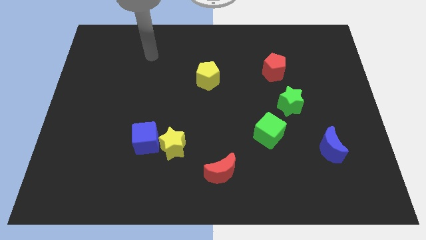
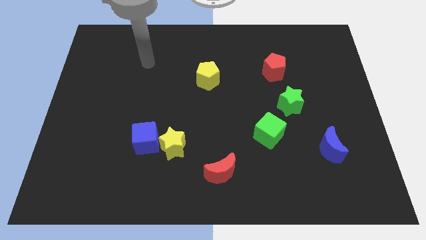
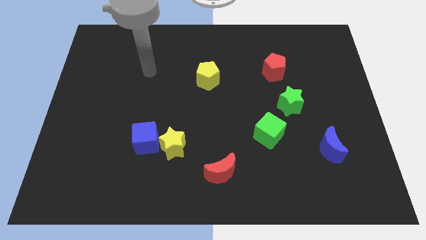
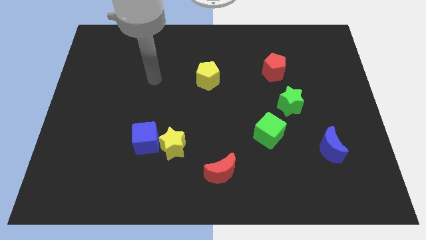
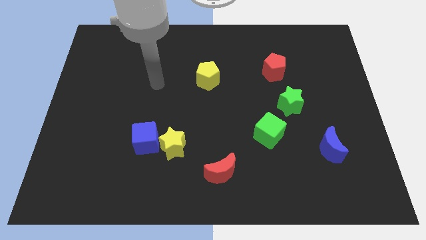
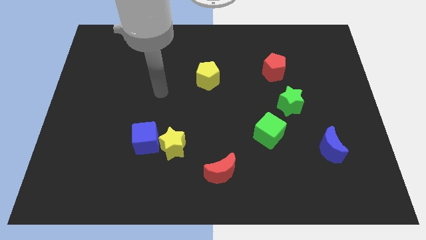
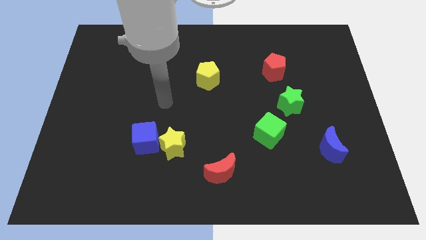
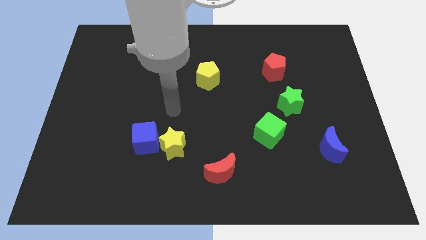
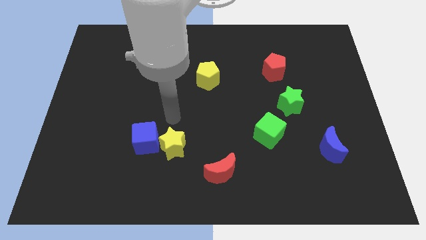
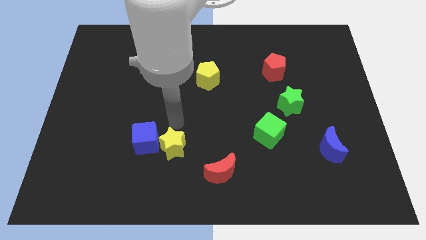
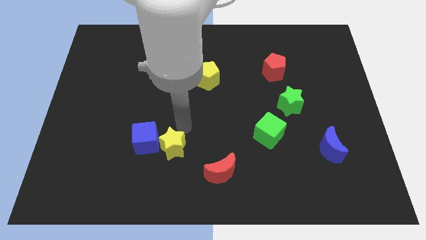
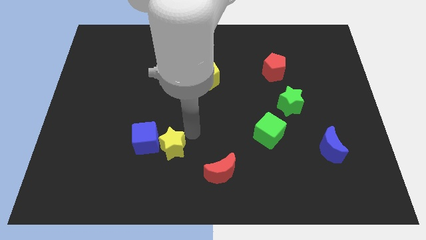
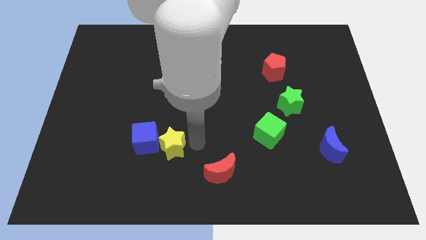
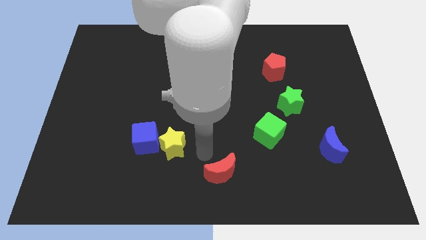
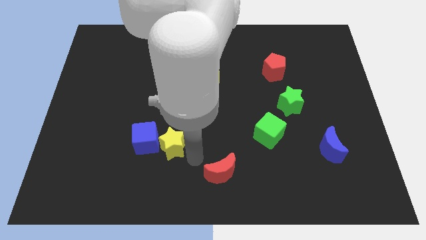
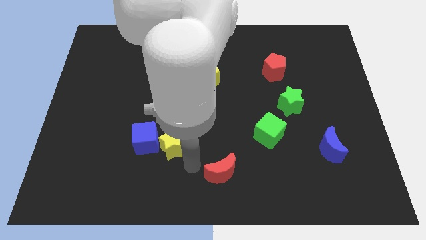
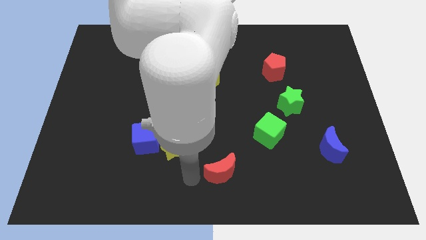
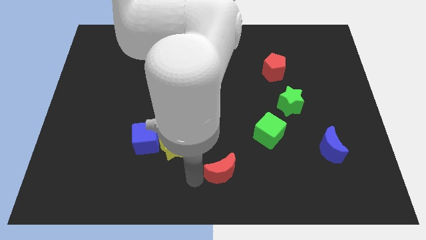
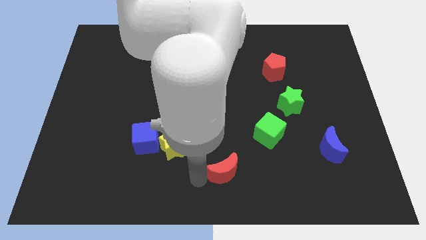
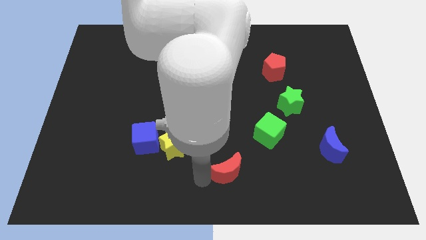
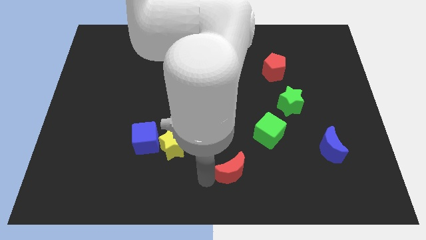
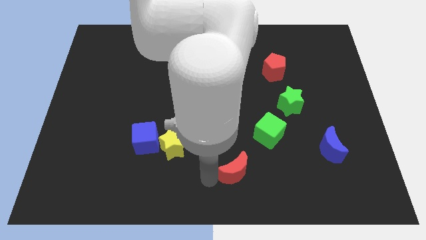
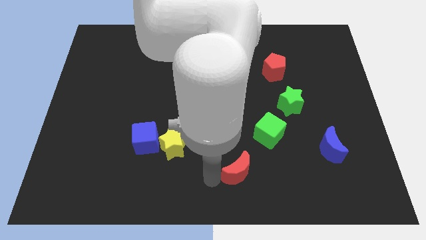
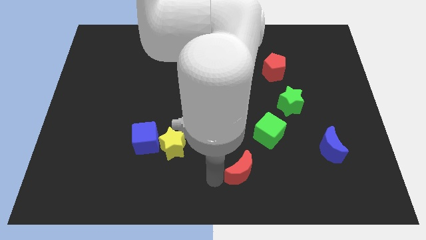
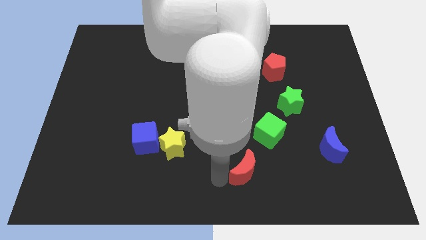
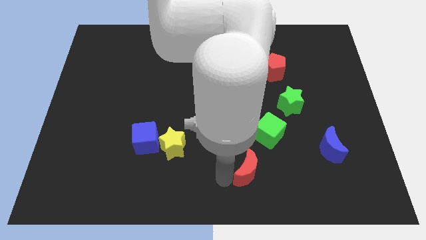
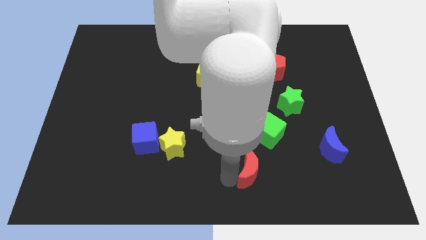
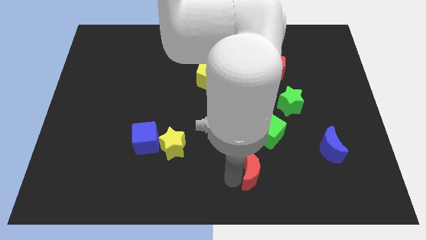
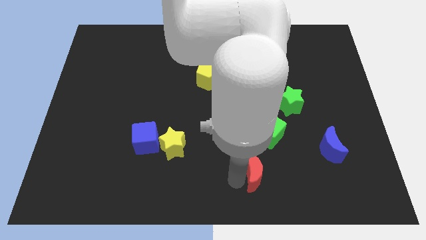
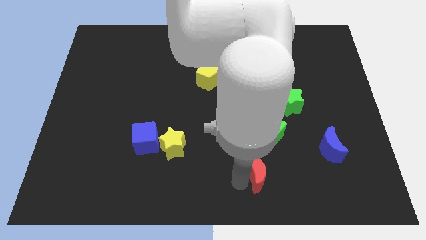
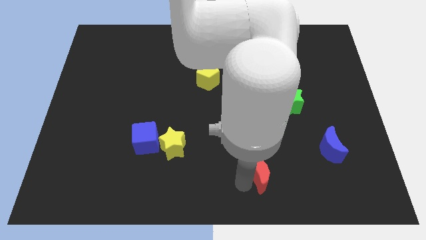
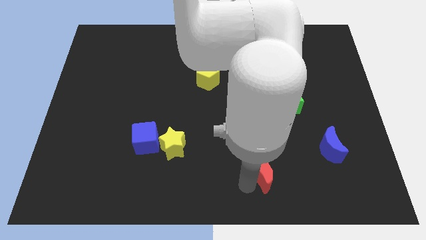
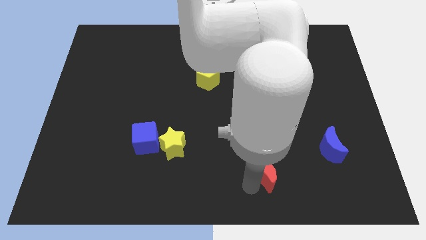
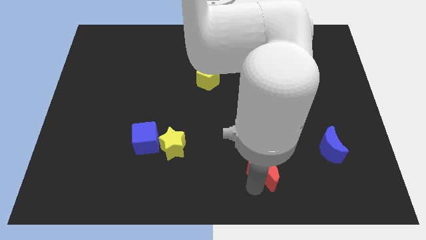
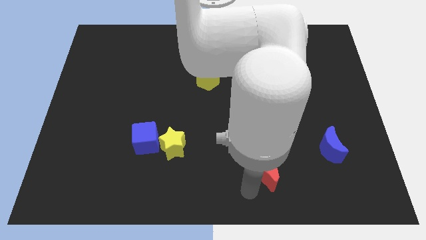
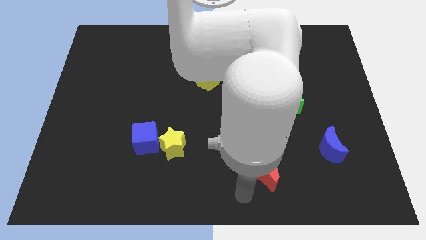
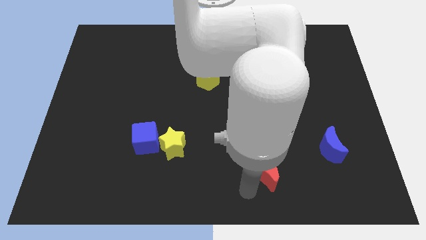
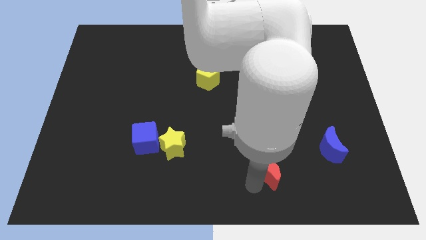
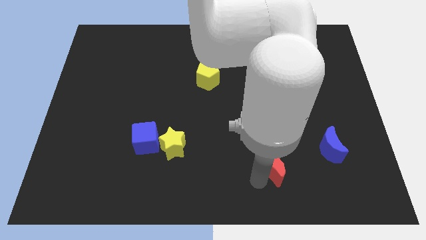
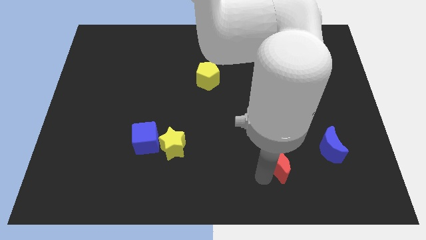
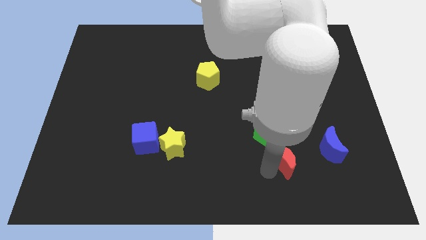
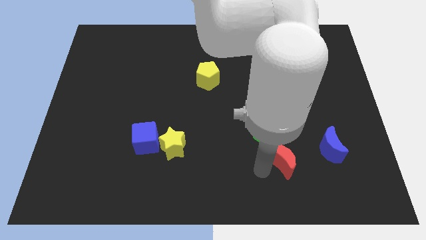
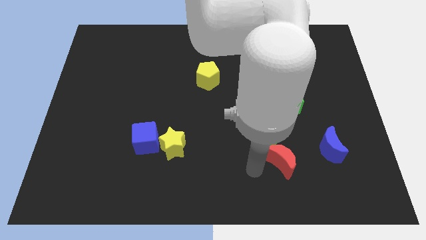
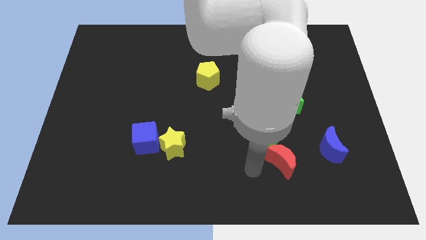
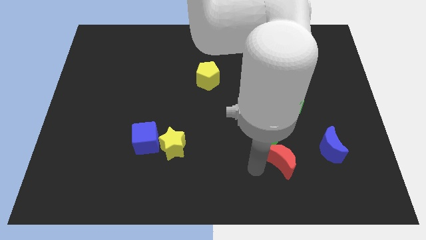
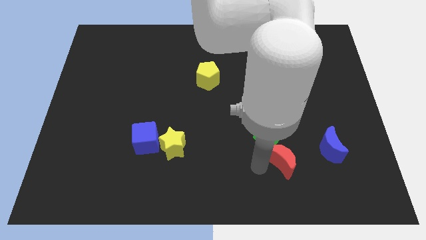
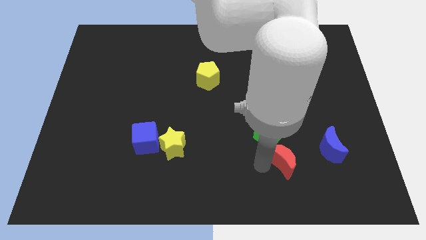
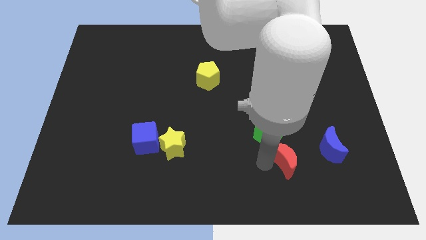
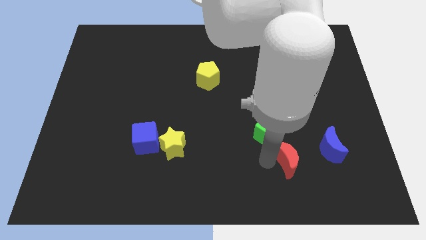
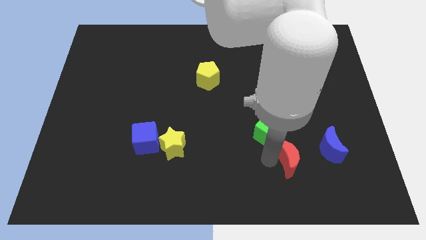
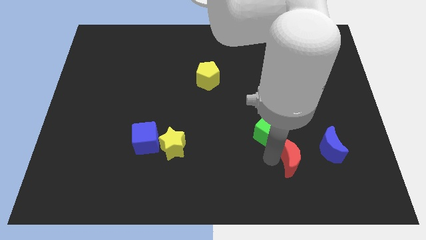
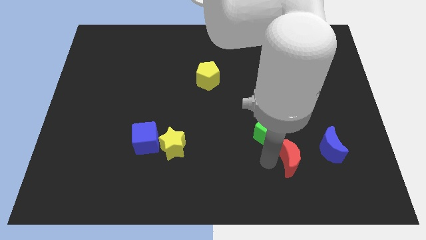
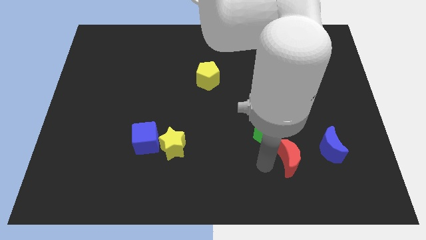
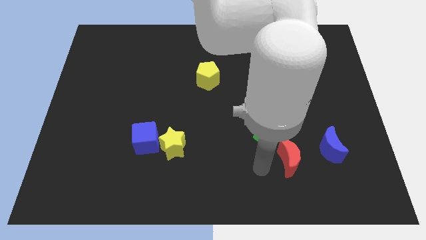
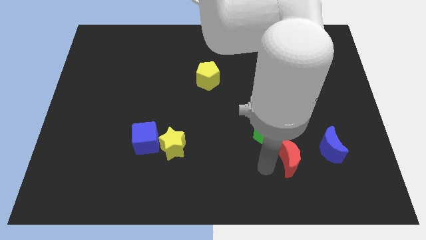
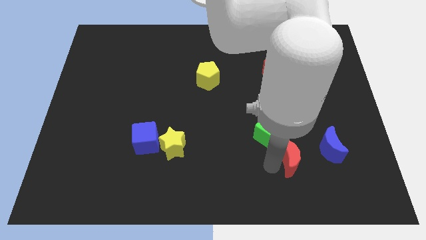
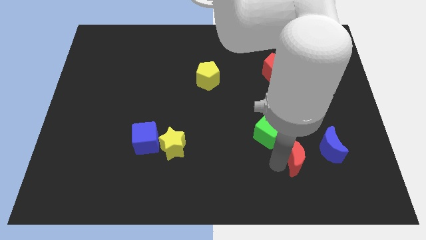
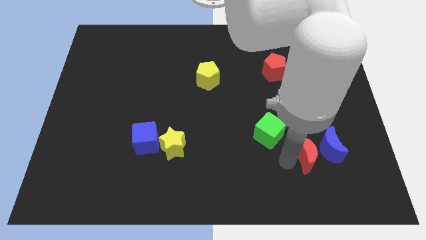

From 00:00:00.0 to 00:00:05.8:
move the red moon close to the blue moon

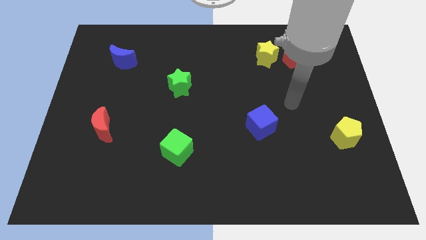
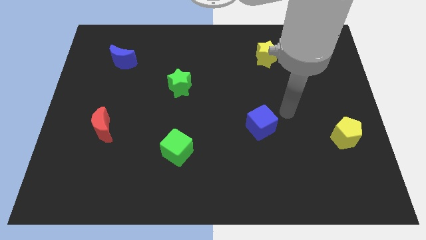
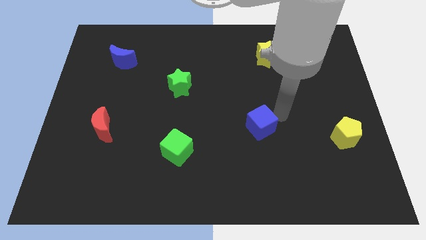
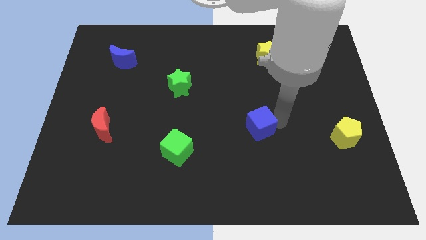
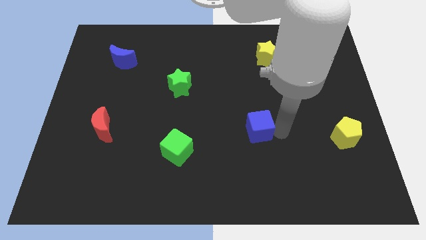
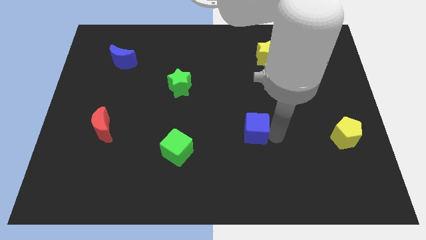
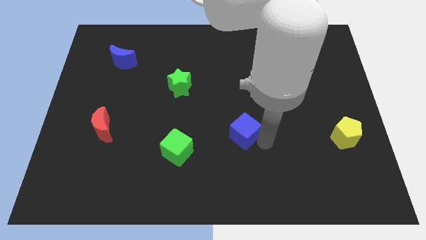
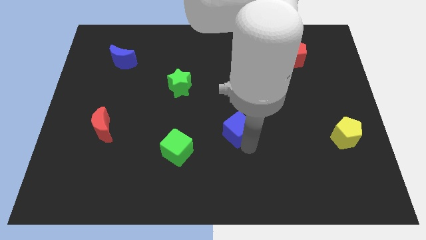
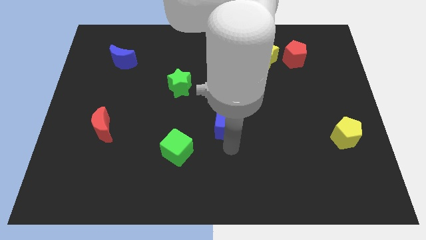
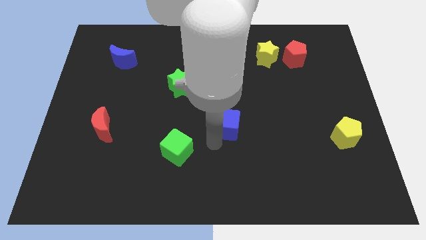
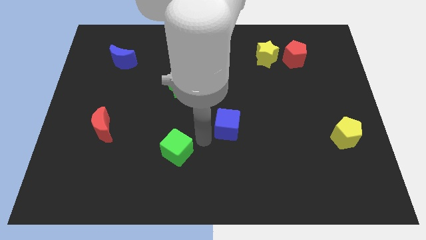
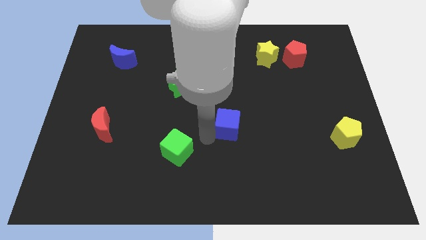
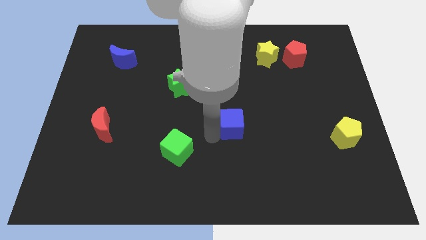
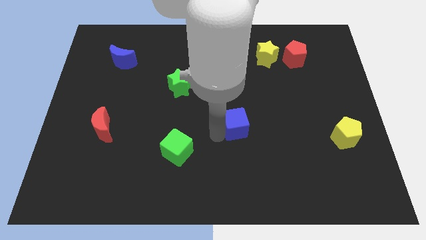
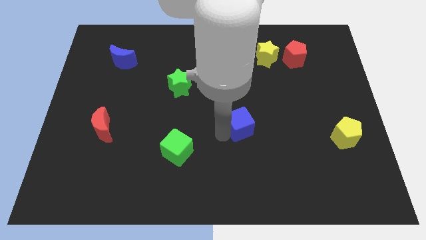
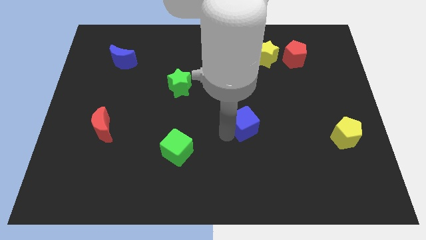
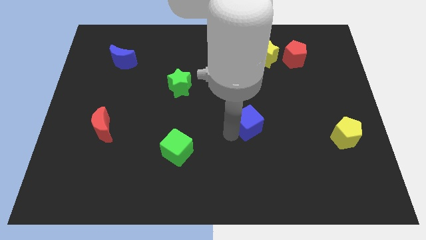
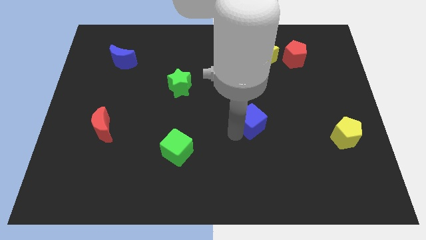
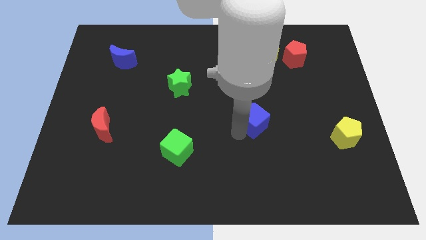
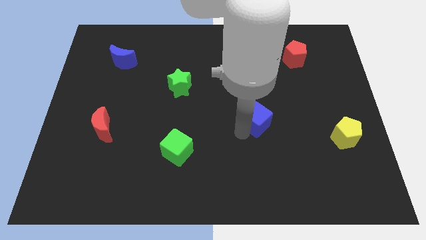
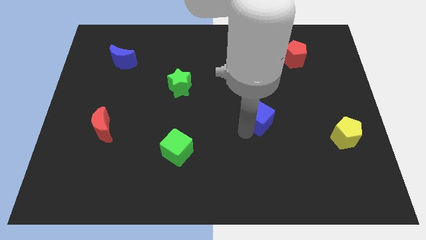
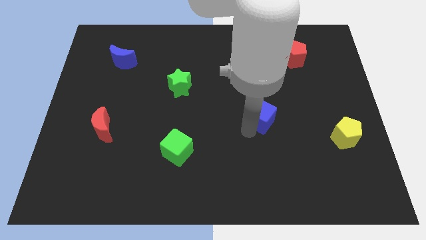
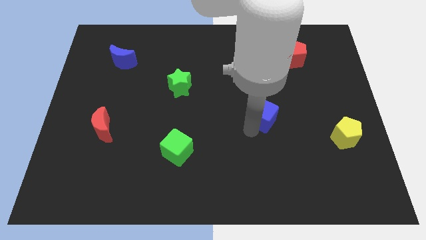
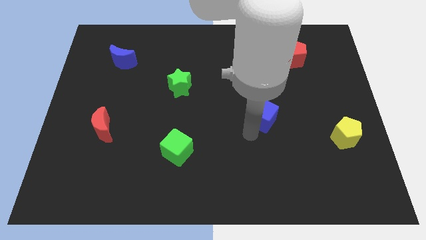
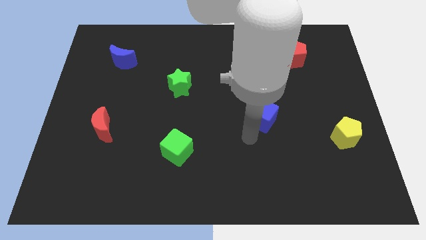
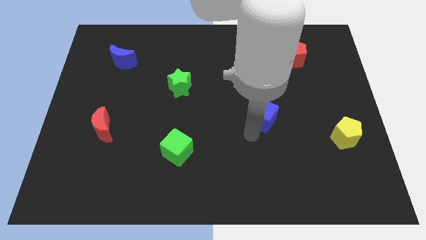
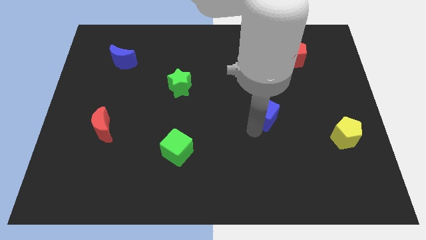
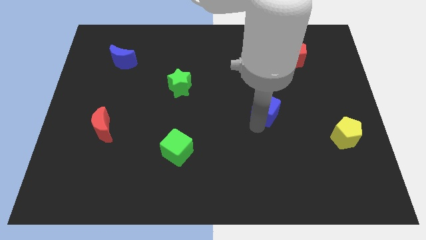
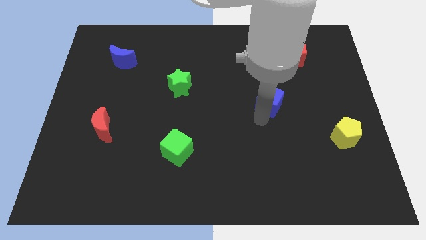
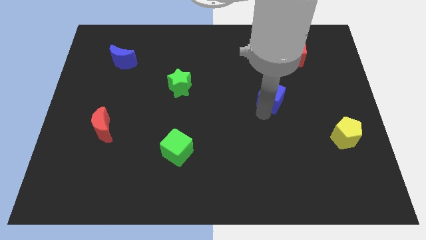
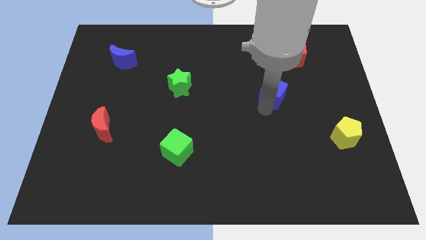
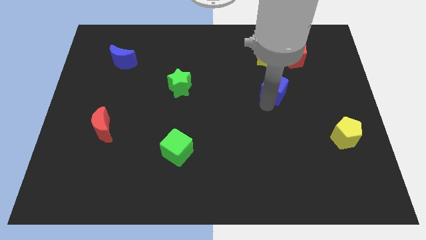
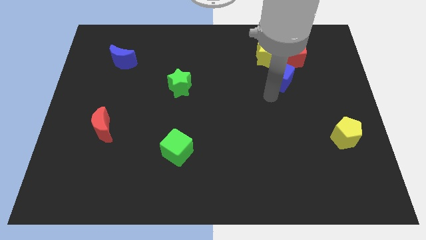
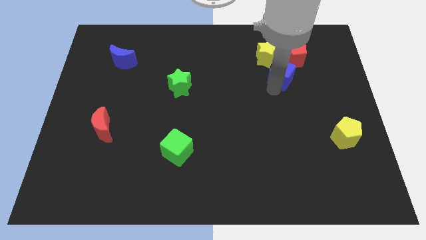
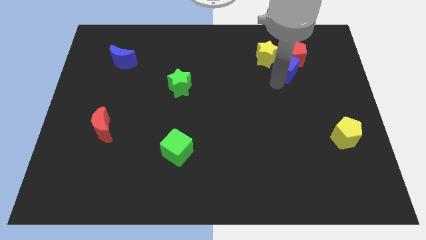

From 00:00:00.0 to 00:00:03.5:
move the blue cube towards the red pentagon
